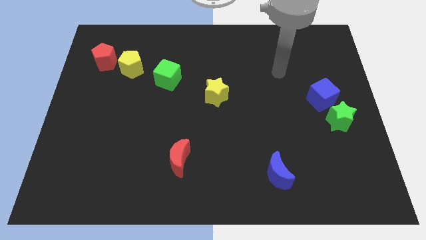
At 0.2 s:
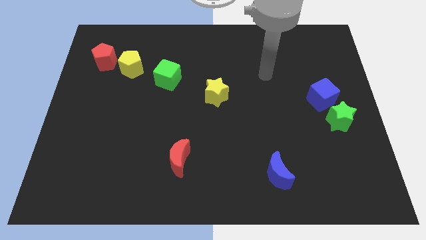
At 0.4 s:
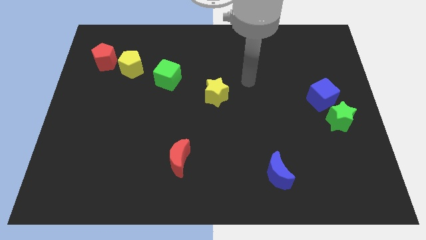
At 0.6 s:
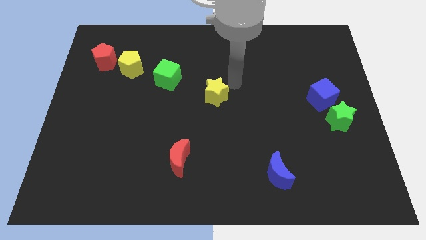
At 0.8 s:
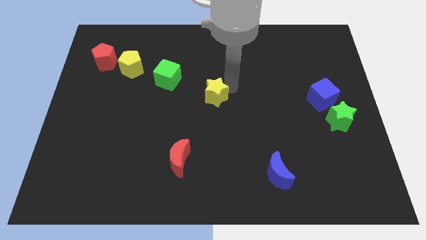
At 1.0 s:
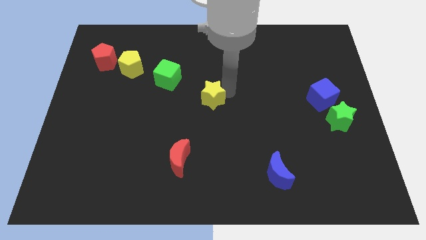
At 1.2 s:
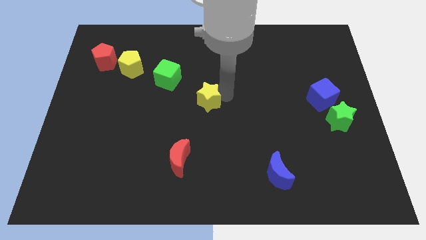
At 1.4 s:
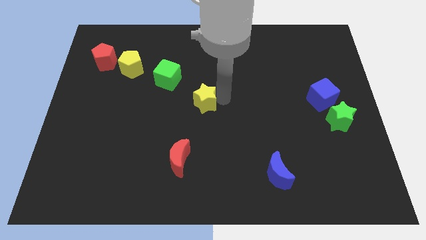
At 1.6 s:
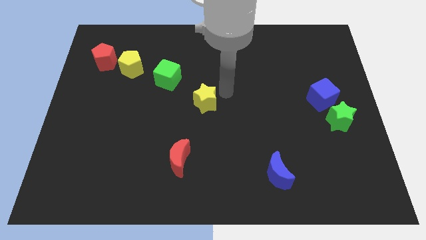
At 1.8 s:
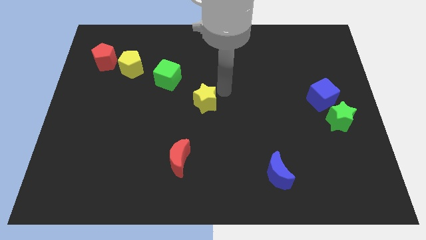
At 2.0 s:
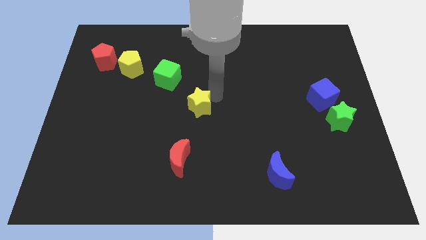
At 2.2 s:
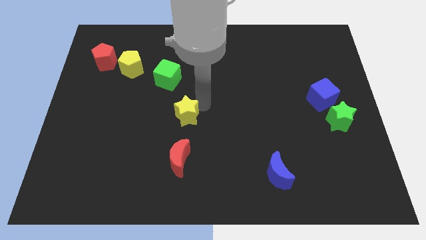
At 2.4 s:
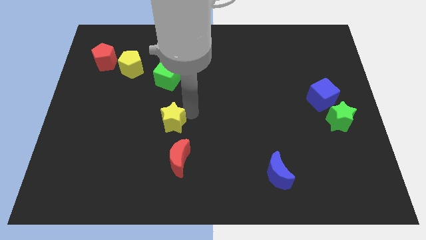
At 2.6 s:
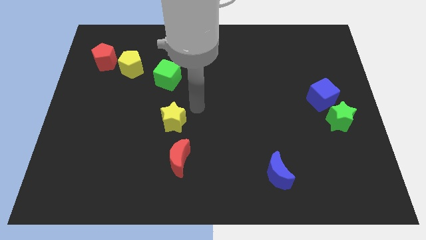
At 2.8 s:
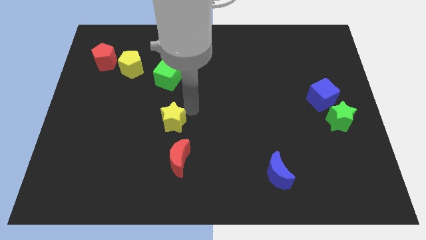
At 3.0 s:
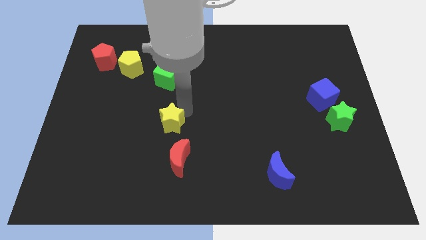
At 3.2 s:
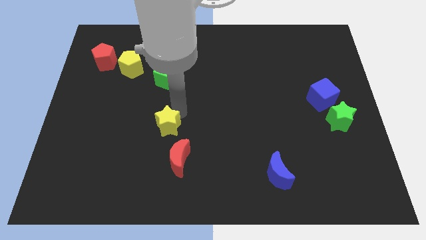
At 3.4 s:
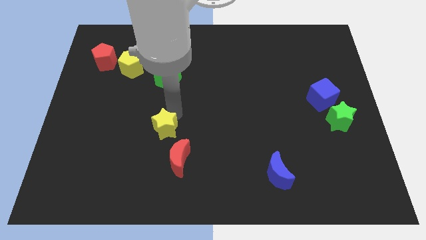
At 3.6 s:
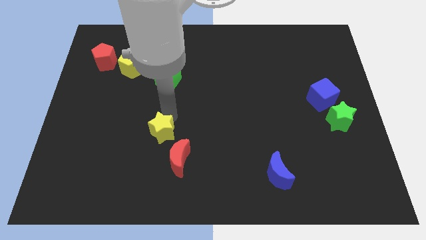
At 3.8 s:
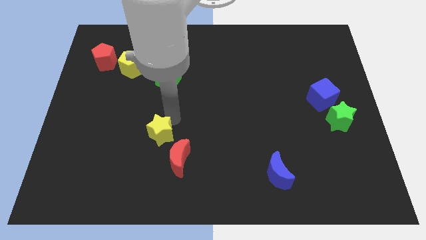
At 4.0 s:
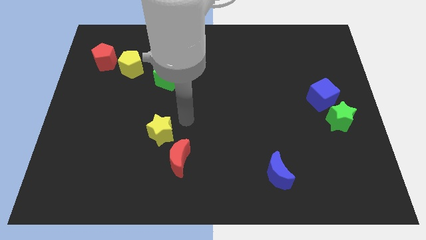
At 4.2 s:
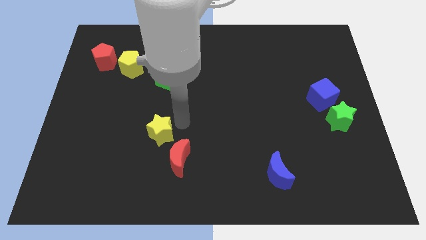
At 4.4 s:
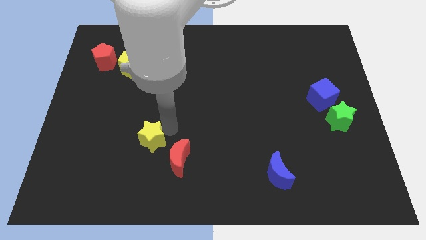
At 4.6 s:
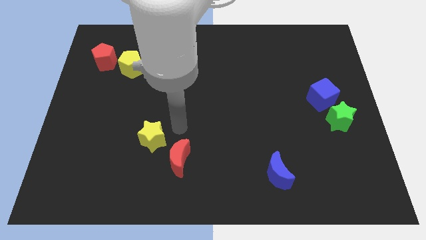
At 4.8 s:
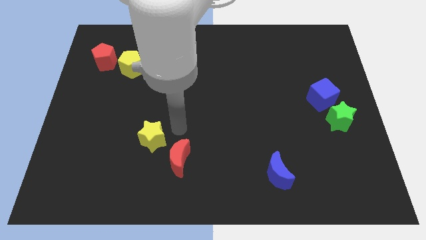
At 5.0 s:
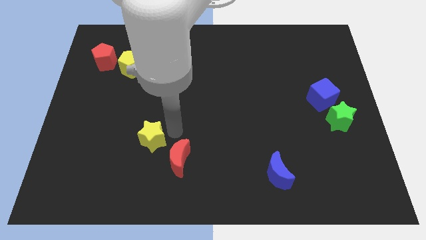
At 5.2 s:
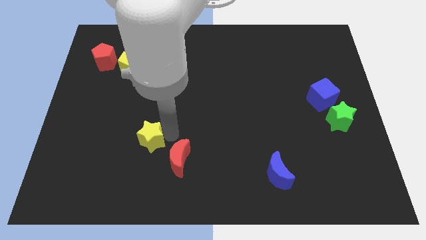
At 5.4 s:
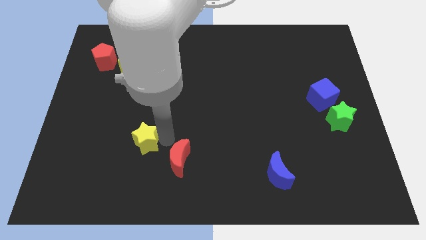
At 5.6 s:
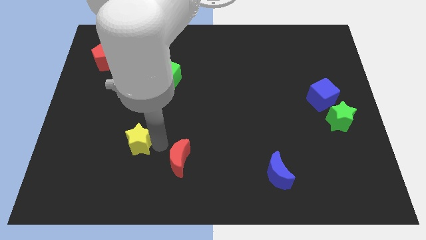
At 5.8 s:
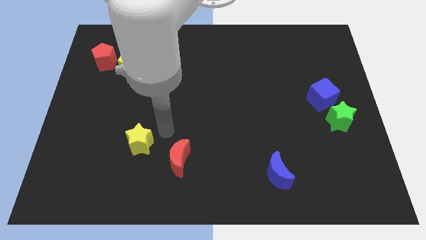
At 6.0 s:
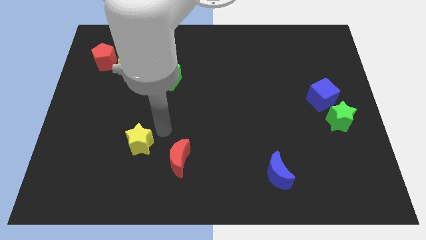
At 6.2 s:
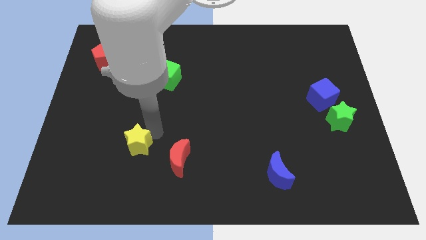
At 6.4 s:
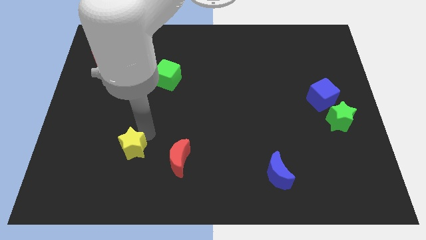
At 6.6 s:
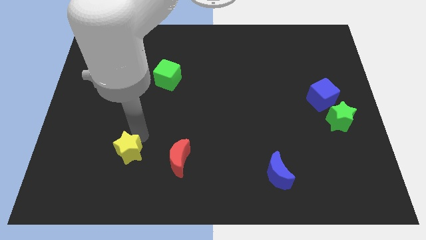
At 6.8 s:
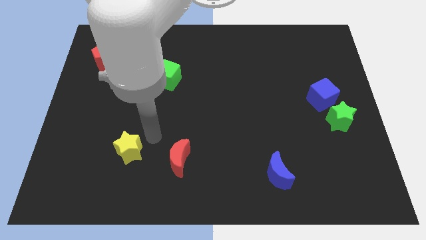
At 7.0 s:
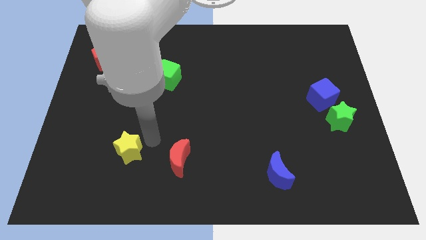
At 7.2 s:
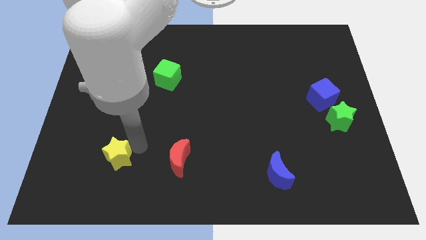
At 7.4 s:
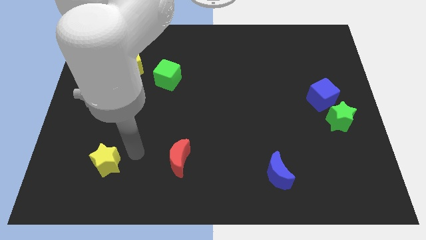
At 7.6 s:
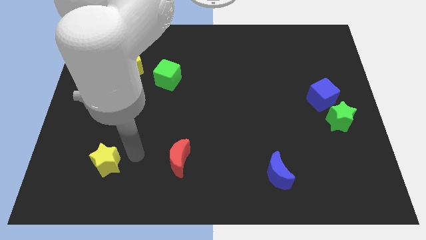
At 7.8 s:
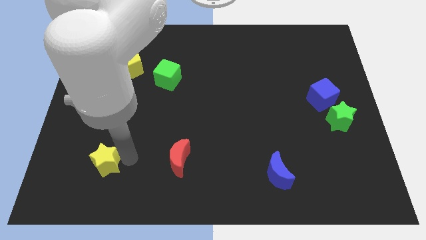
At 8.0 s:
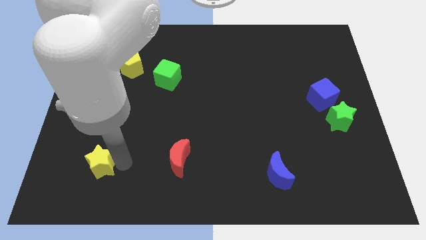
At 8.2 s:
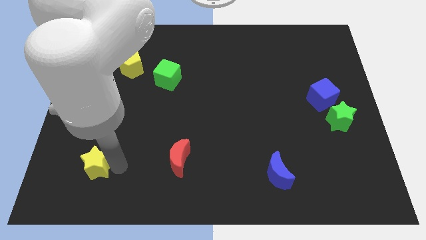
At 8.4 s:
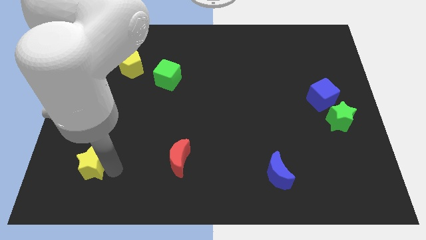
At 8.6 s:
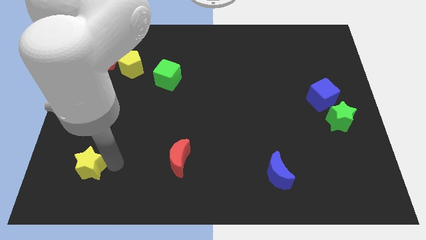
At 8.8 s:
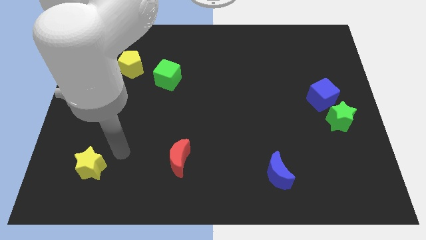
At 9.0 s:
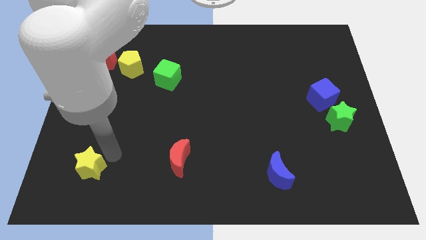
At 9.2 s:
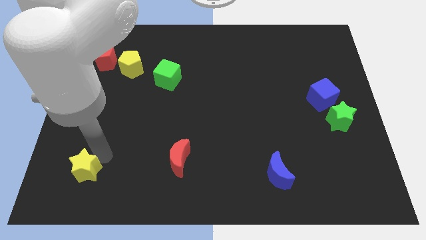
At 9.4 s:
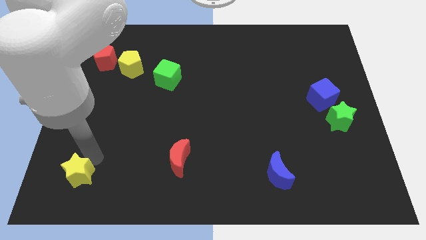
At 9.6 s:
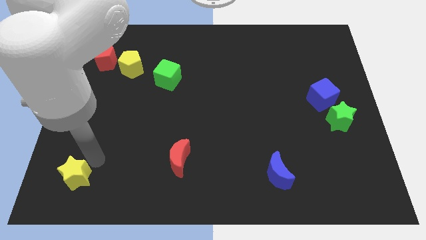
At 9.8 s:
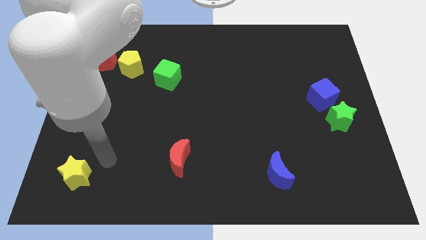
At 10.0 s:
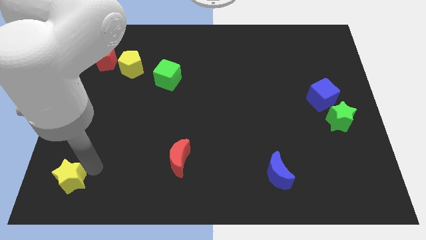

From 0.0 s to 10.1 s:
push the yellow star to the bottom left of the board

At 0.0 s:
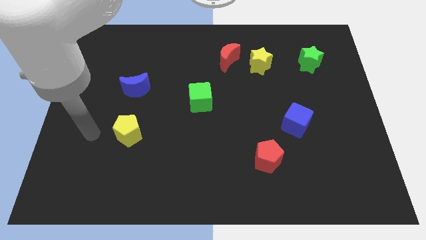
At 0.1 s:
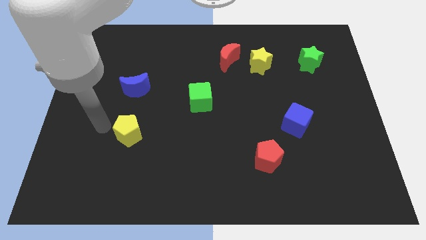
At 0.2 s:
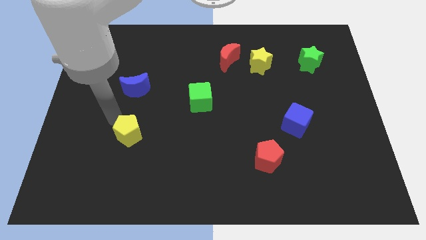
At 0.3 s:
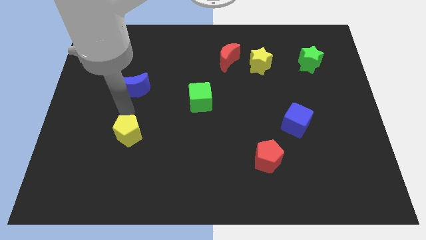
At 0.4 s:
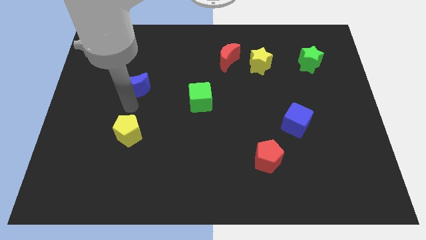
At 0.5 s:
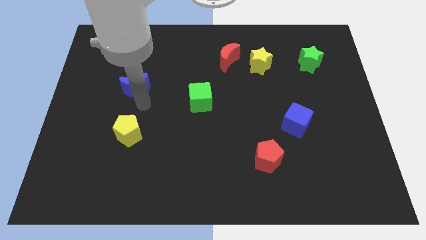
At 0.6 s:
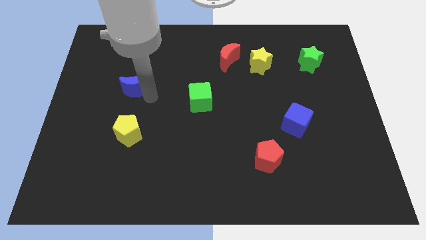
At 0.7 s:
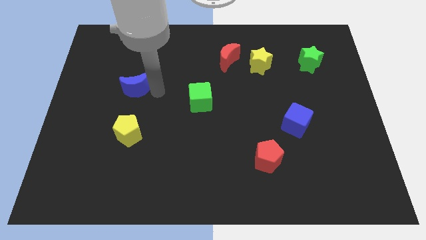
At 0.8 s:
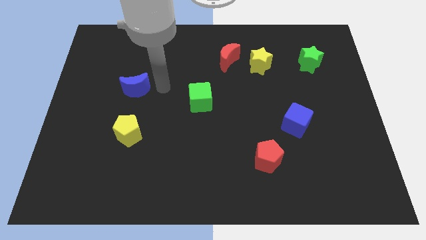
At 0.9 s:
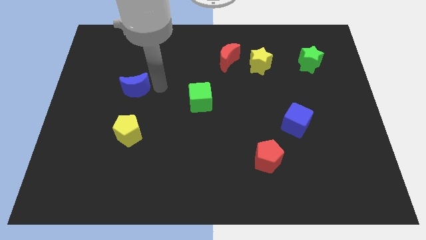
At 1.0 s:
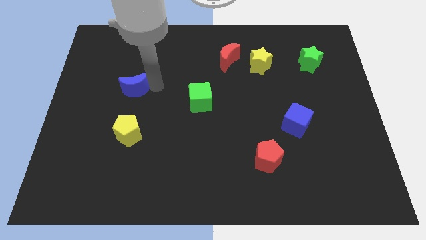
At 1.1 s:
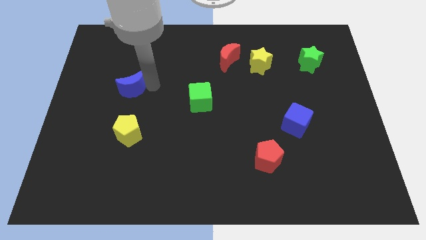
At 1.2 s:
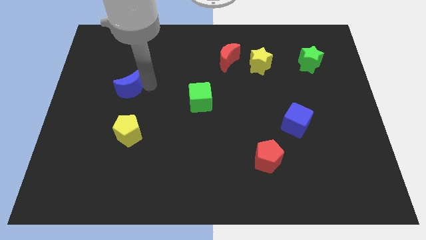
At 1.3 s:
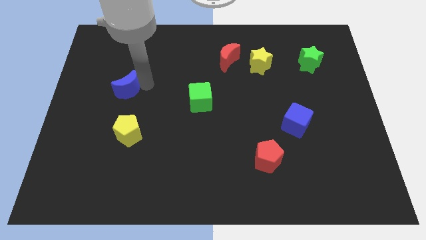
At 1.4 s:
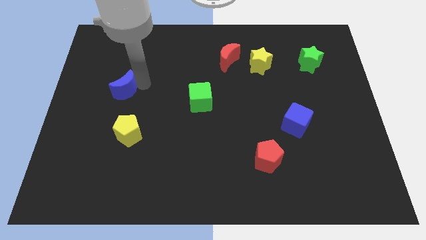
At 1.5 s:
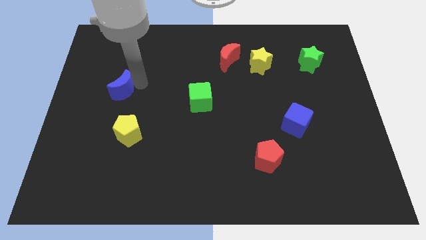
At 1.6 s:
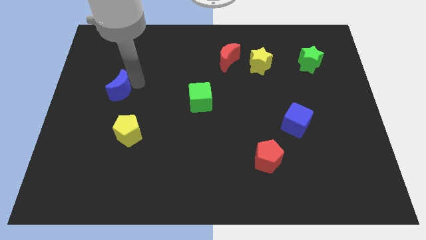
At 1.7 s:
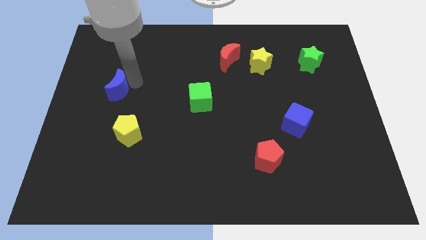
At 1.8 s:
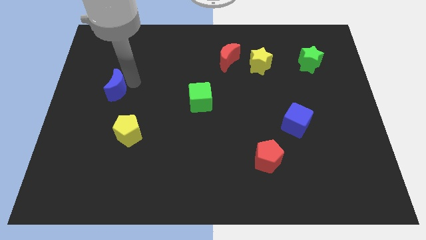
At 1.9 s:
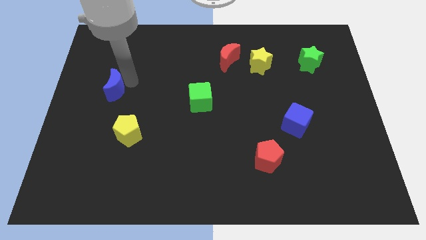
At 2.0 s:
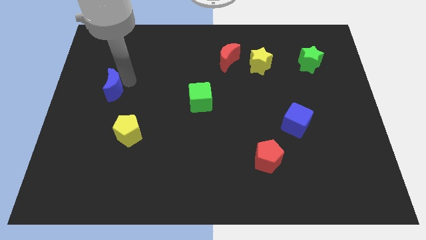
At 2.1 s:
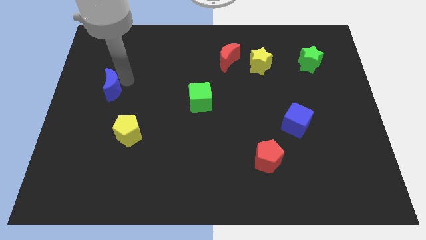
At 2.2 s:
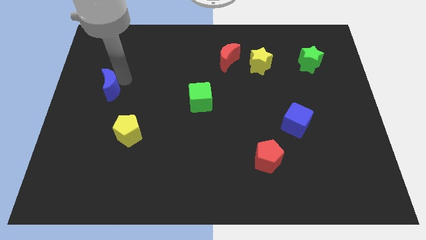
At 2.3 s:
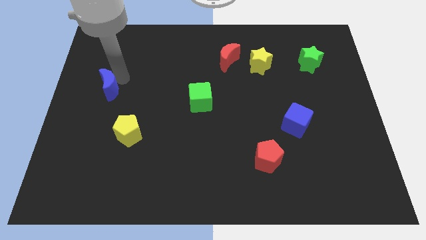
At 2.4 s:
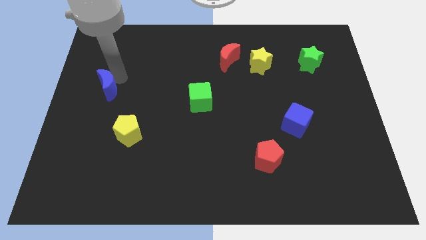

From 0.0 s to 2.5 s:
move the blue moon to the center left
